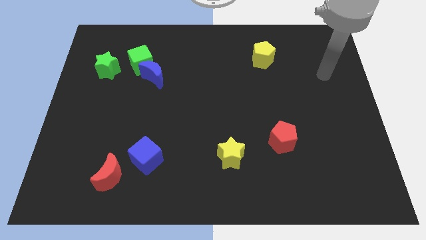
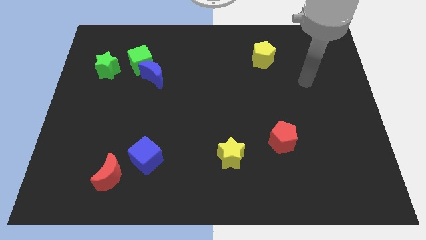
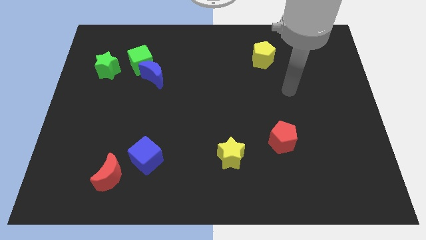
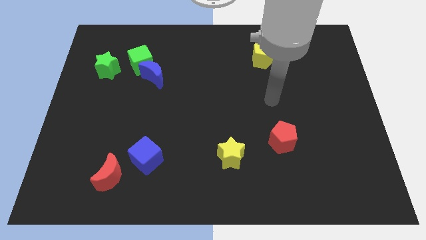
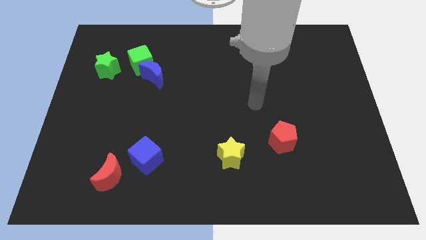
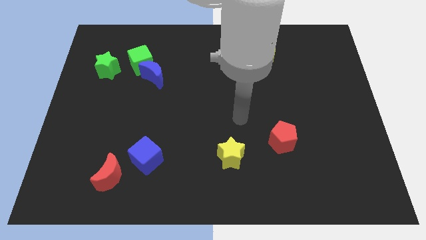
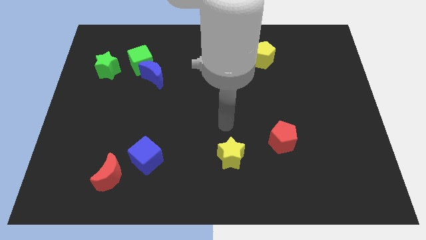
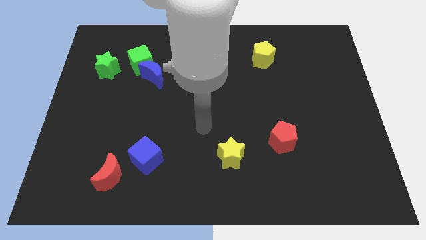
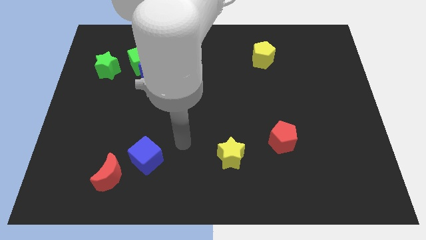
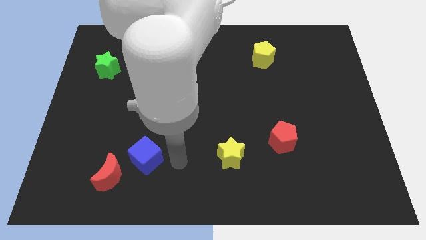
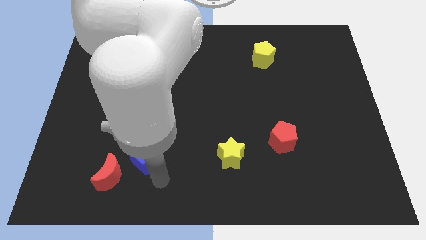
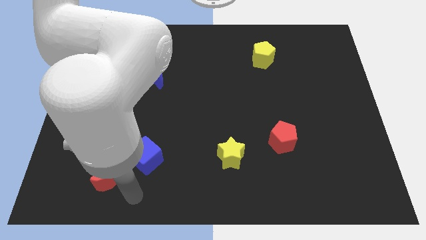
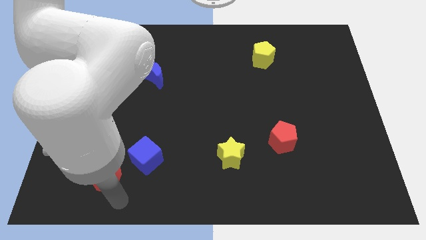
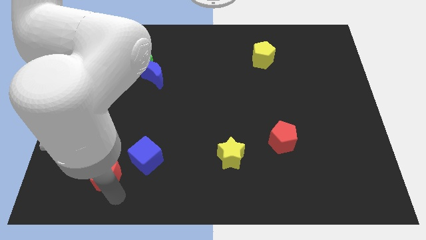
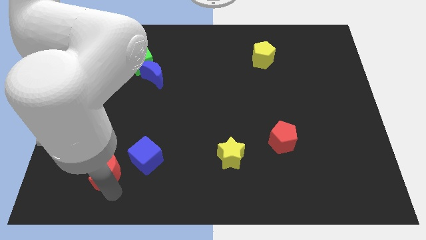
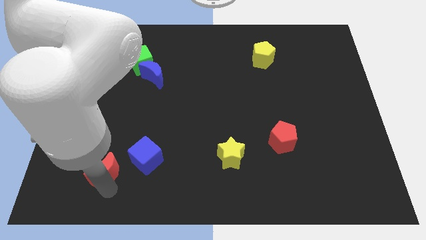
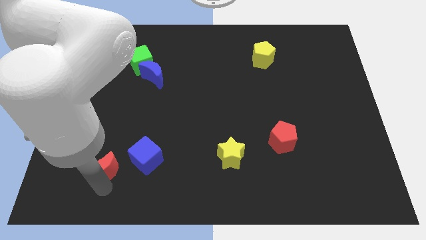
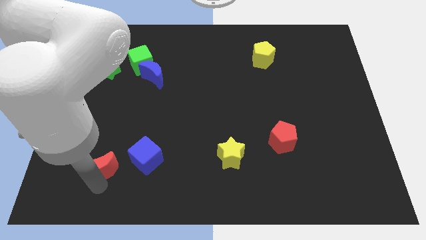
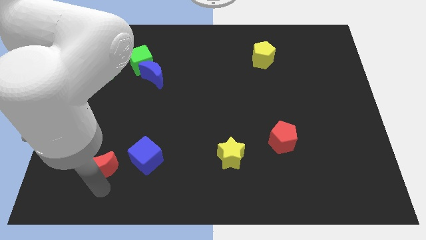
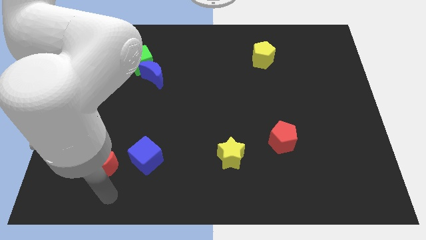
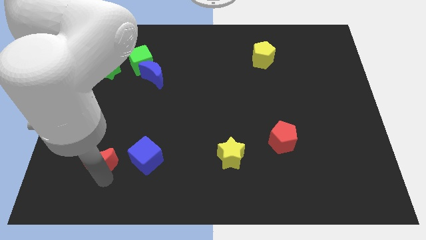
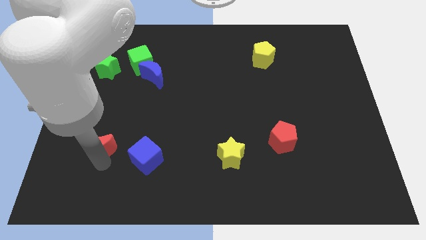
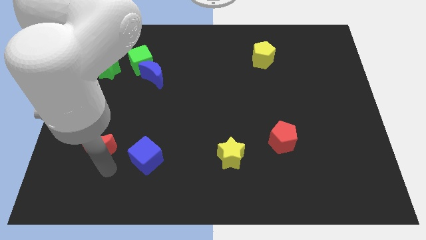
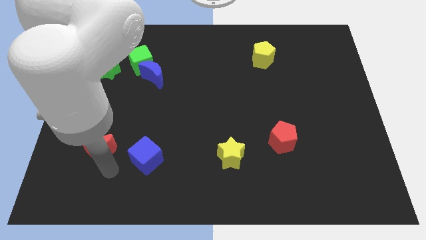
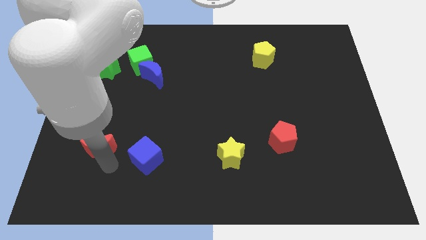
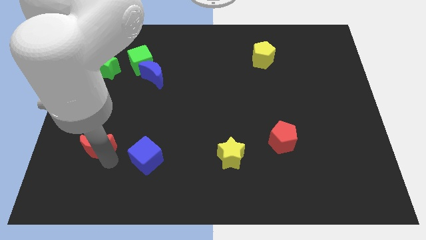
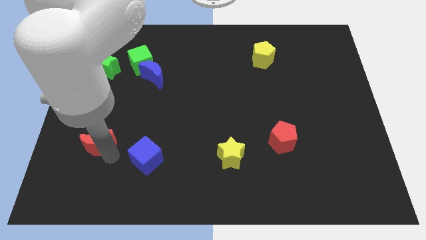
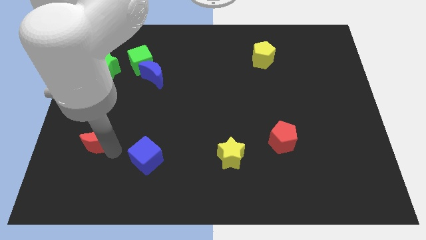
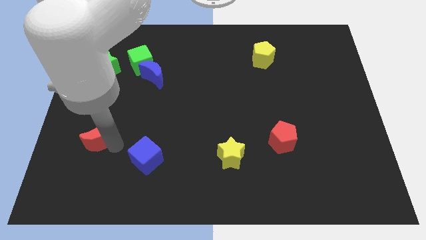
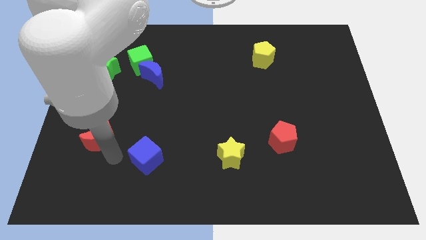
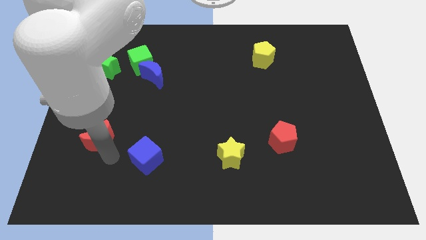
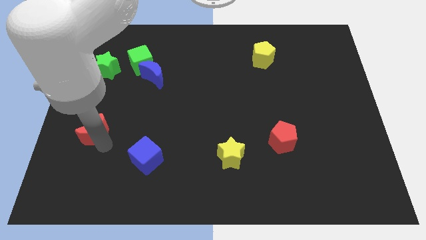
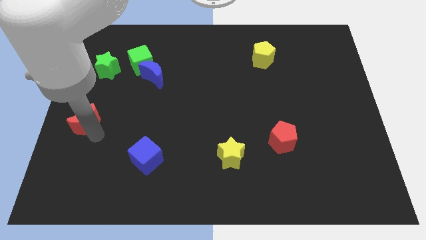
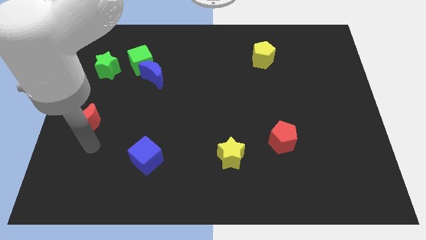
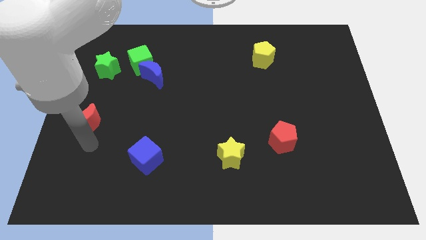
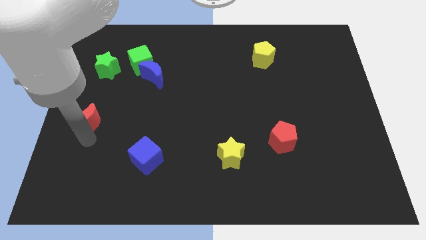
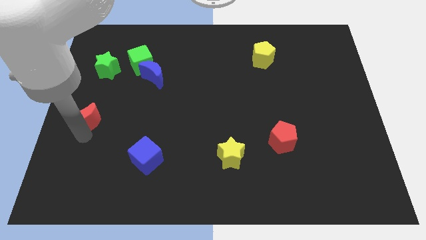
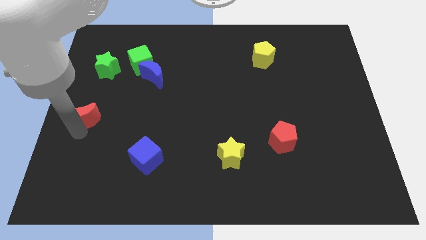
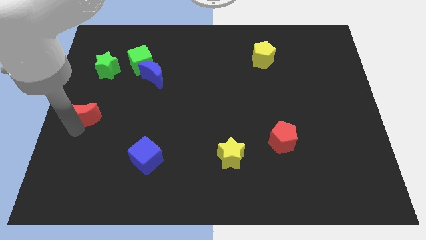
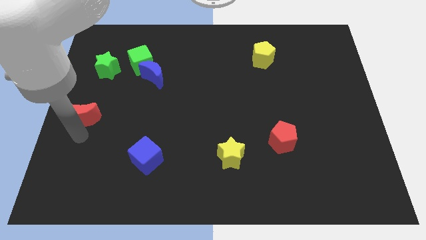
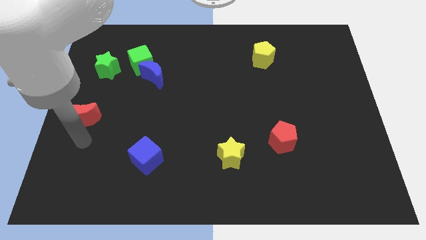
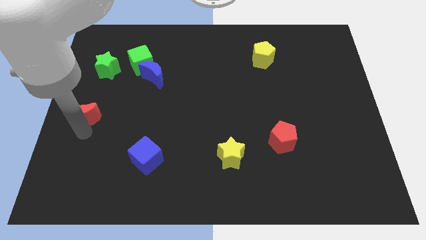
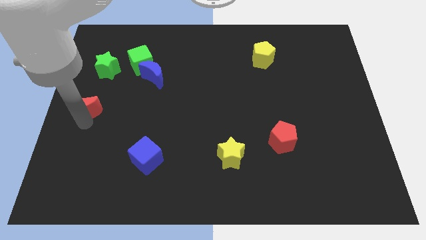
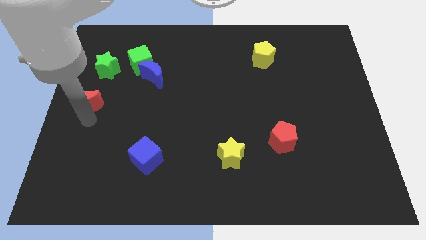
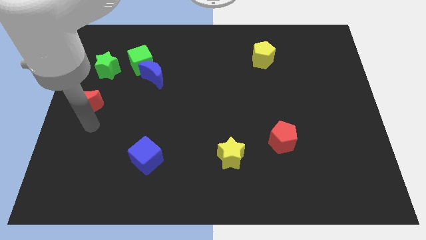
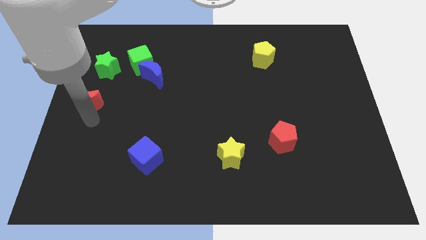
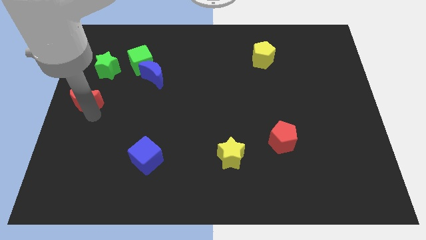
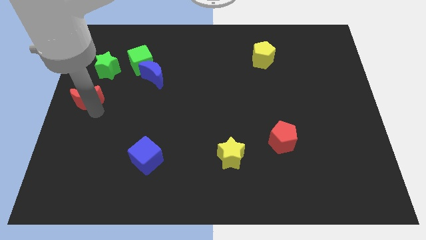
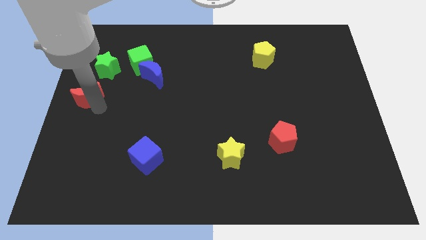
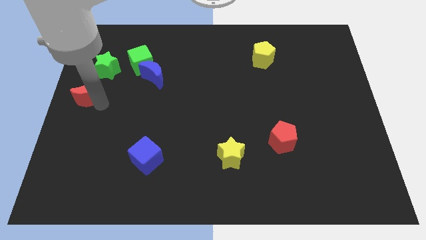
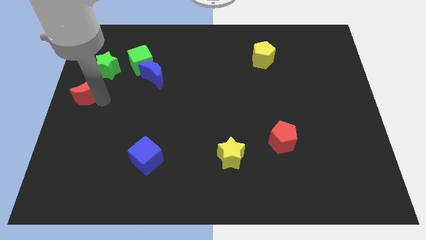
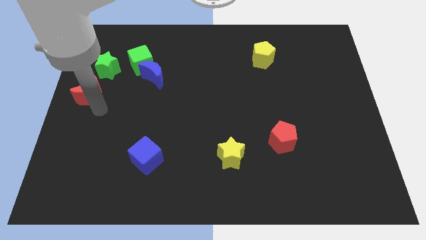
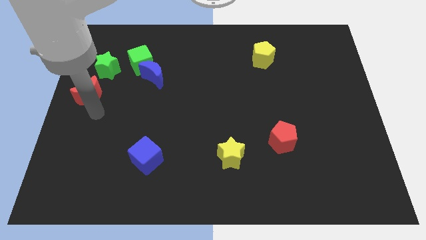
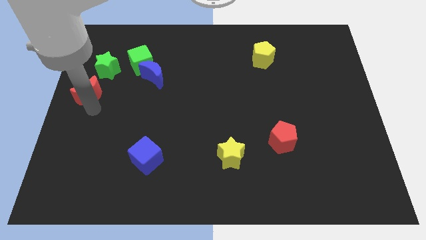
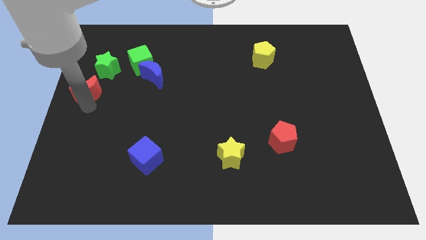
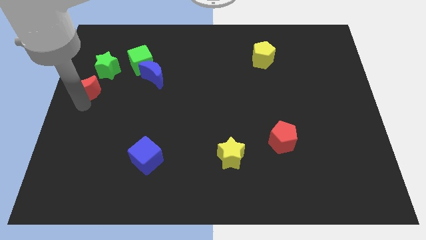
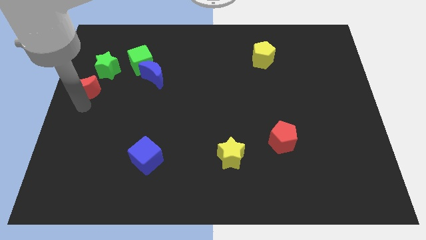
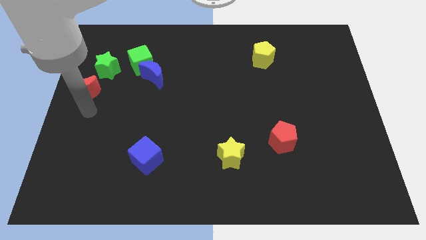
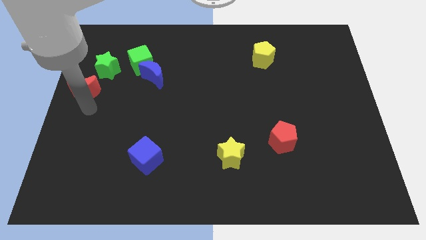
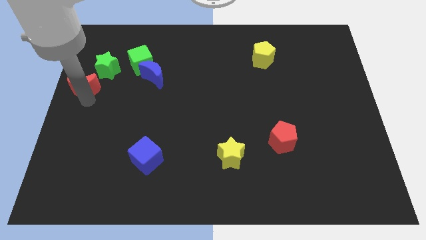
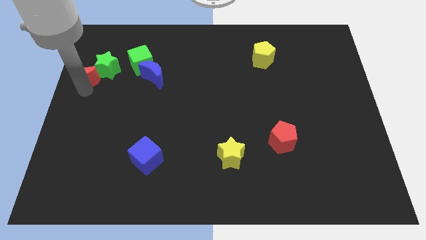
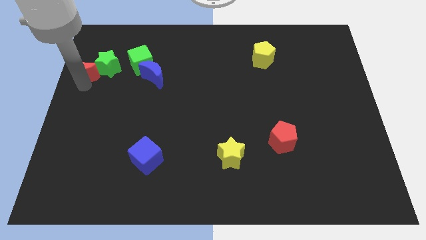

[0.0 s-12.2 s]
move the red moon just left of the green cube

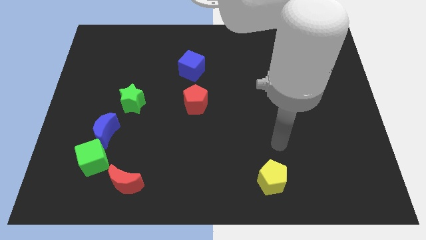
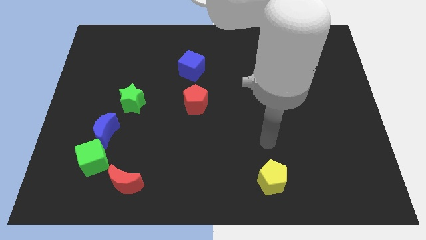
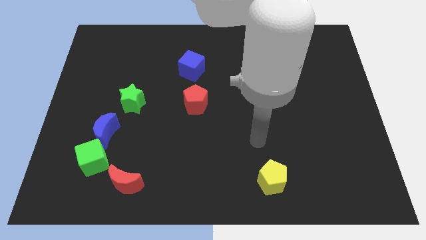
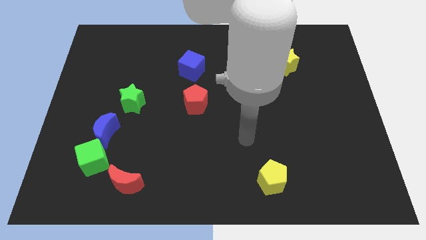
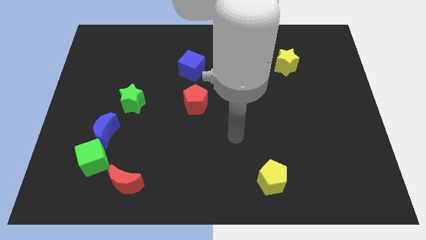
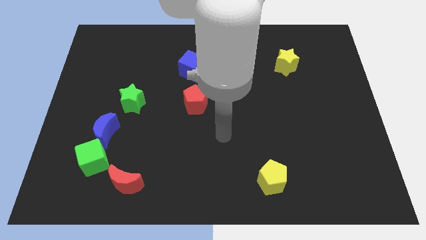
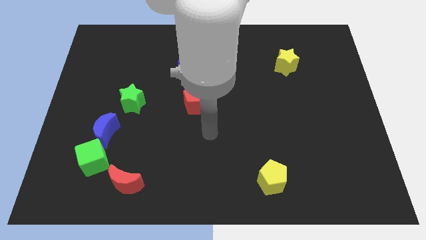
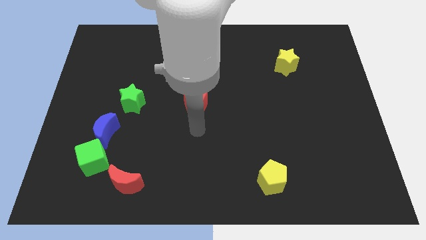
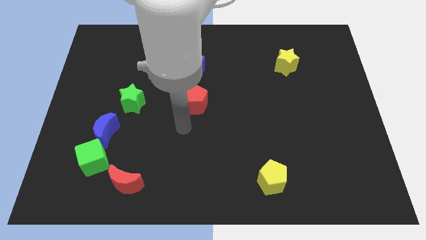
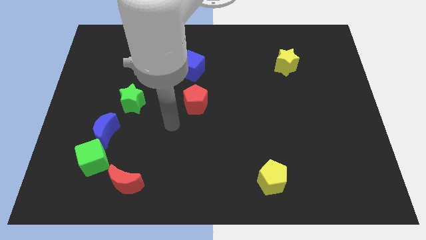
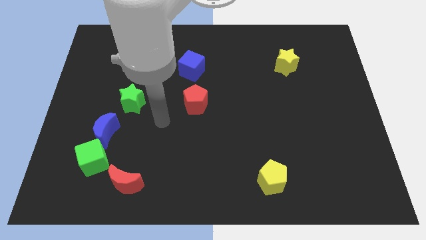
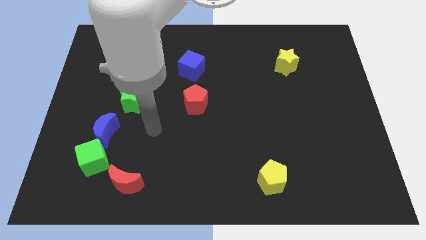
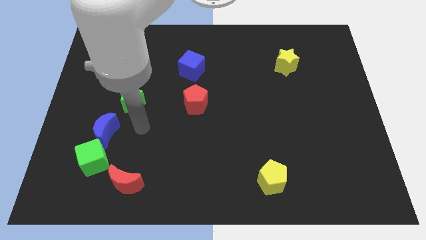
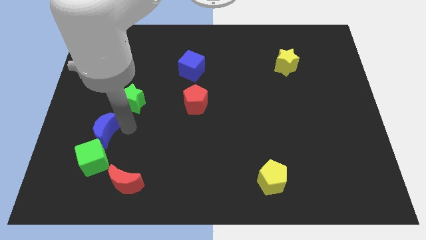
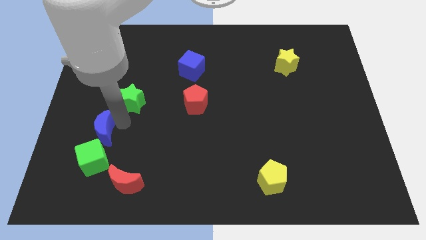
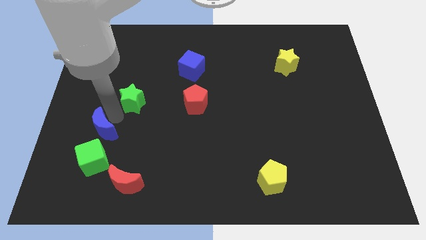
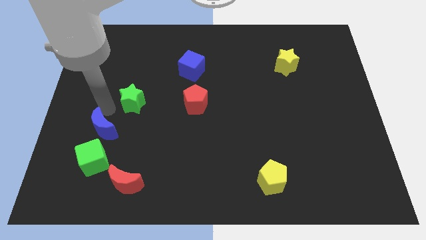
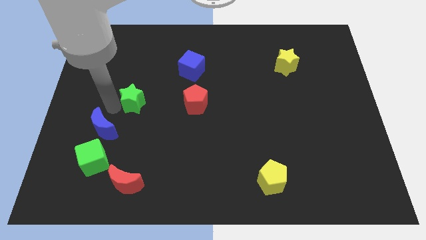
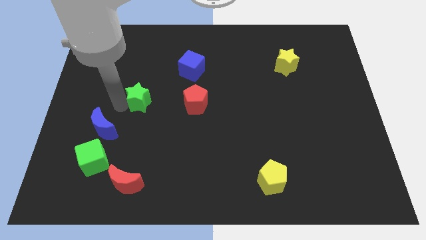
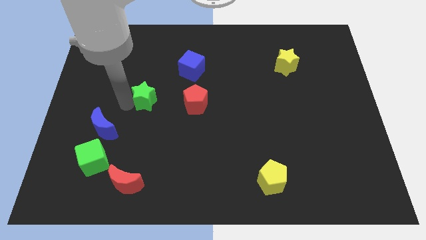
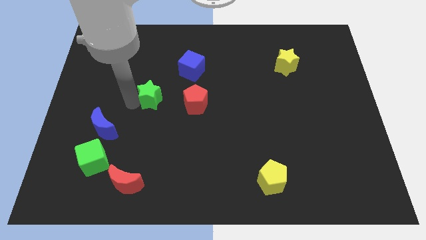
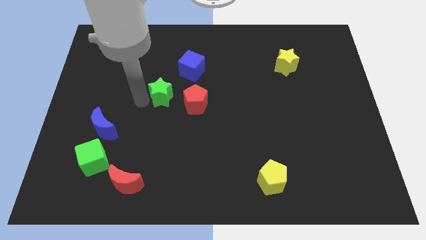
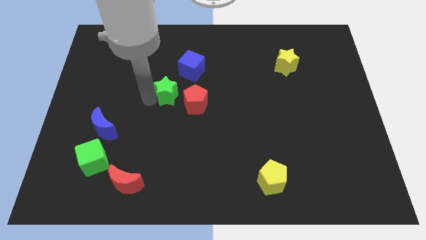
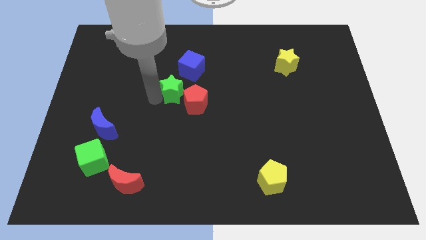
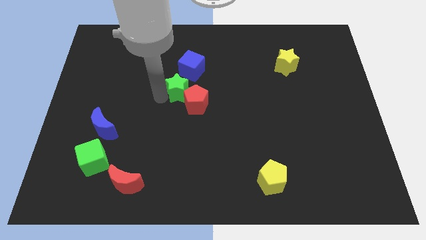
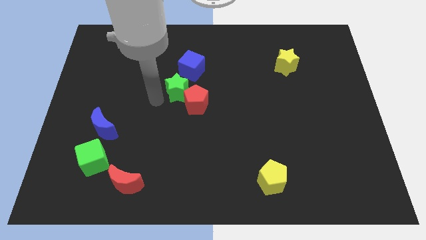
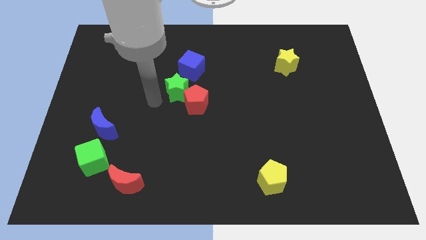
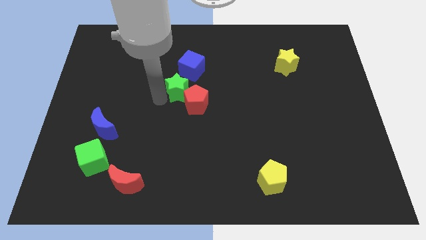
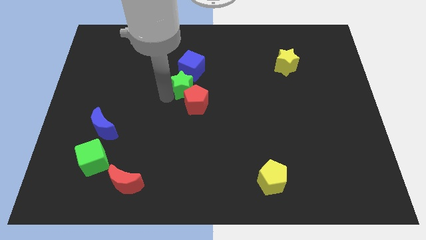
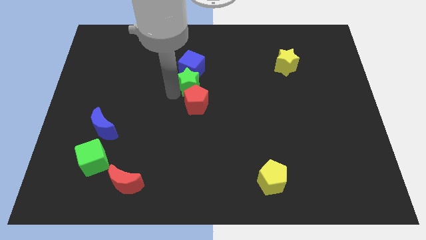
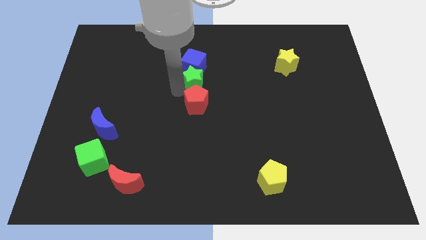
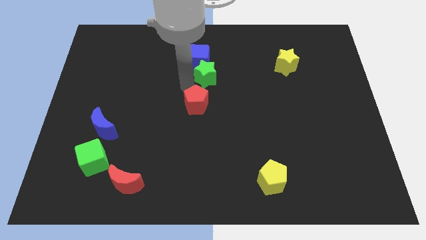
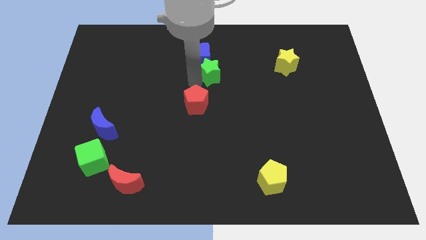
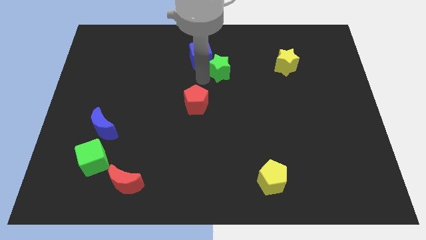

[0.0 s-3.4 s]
slide the green star right of the blue cube
